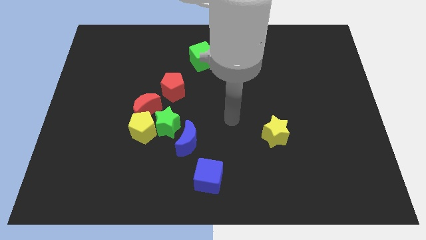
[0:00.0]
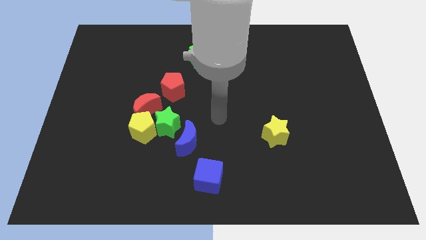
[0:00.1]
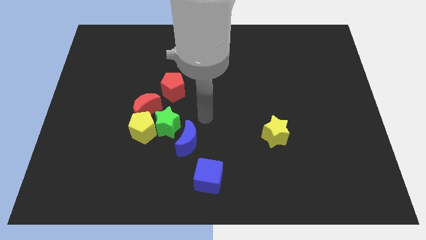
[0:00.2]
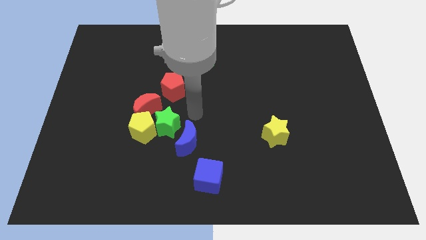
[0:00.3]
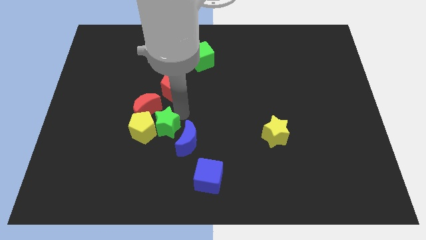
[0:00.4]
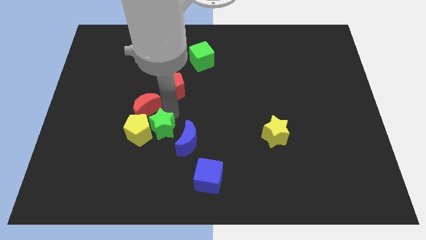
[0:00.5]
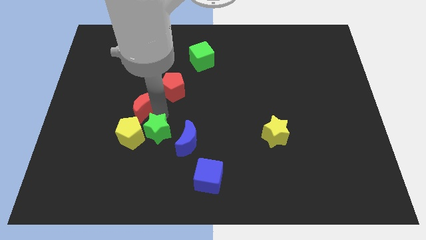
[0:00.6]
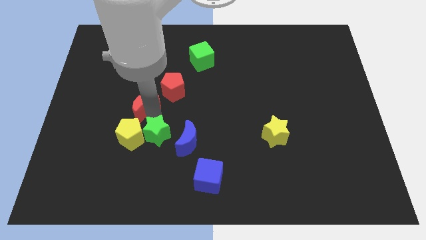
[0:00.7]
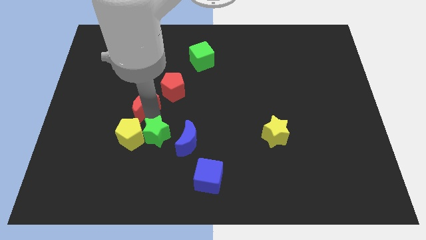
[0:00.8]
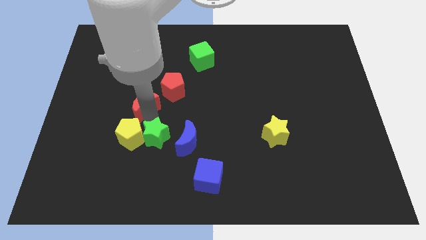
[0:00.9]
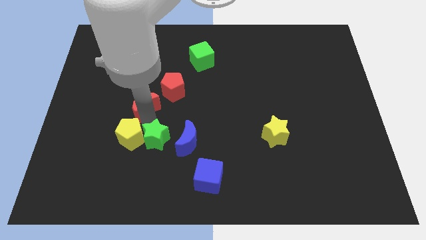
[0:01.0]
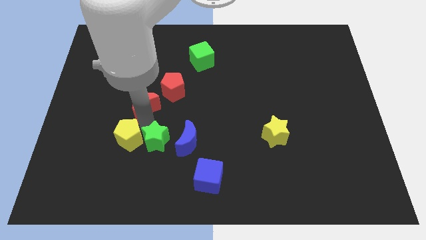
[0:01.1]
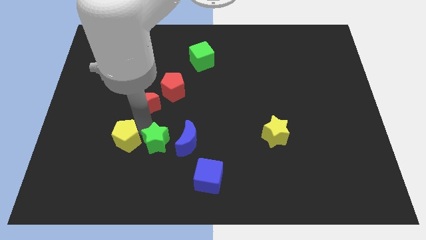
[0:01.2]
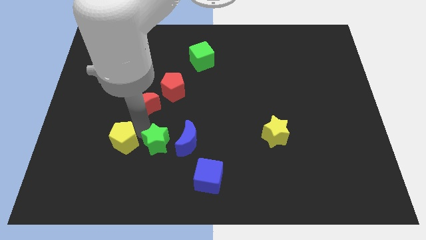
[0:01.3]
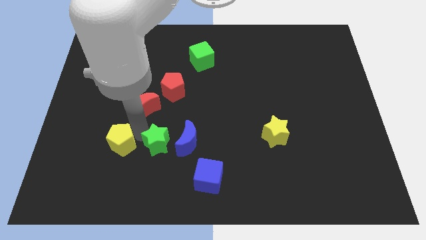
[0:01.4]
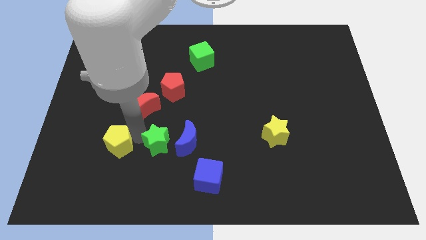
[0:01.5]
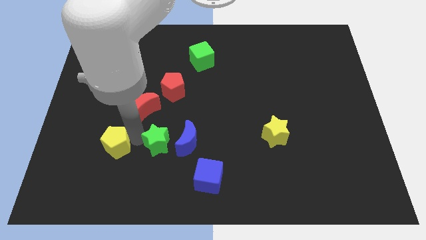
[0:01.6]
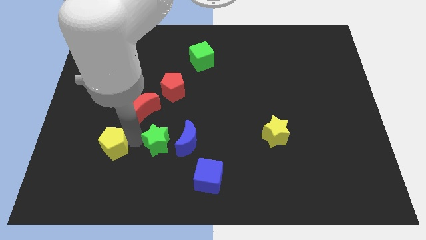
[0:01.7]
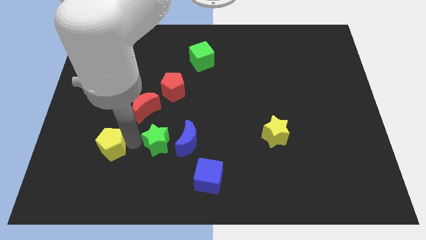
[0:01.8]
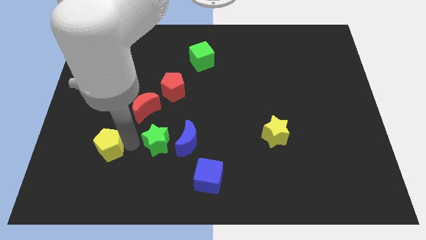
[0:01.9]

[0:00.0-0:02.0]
separate the yellow pentagon from the green star and red moon

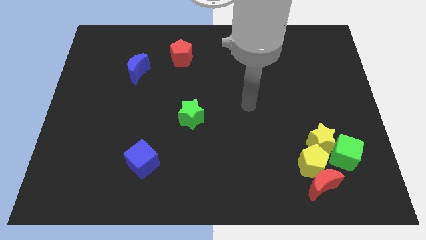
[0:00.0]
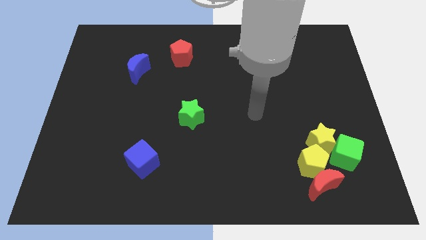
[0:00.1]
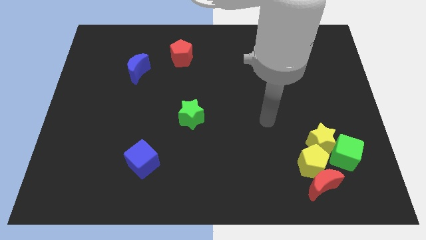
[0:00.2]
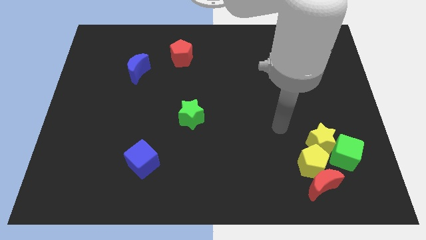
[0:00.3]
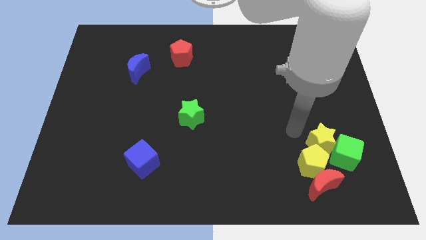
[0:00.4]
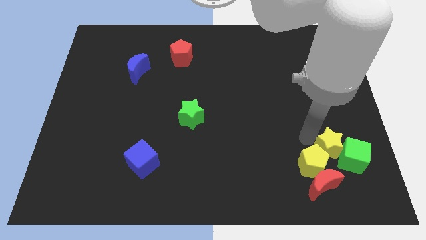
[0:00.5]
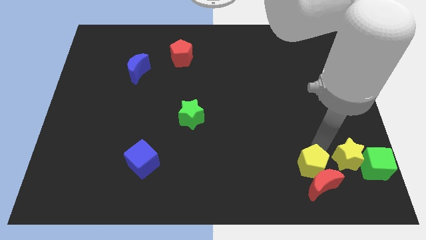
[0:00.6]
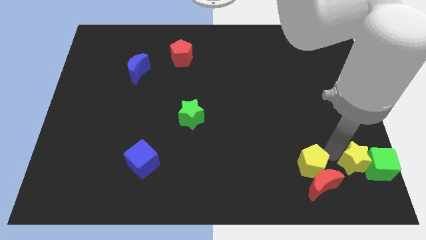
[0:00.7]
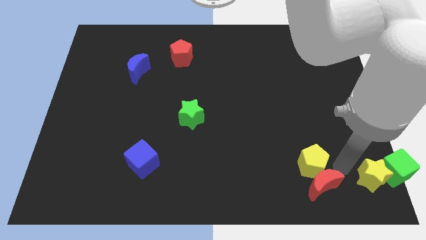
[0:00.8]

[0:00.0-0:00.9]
separate the yellow pentagon from the red moon, yellow star, and green cube

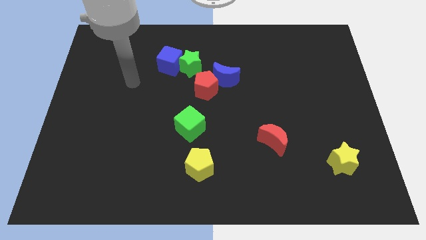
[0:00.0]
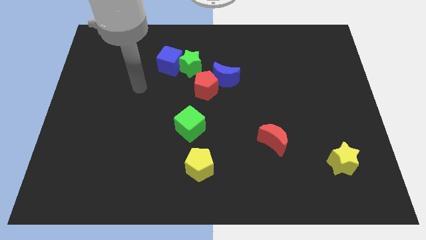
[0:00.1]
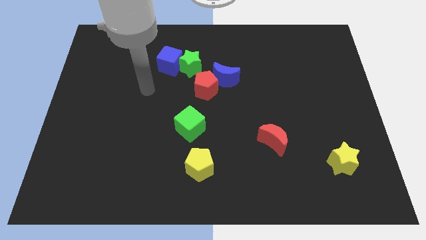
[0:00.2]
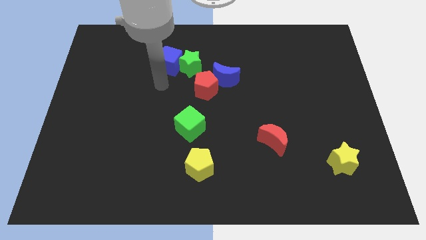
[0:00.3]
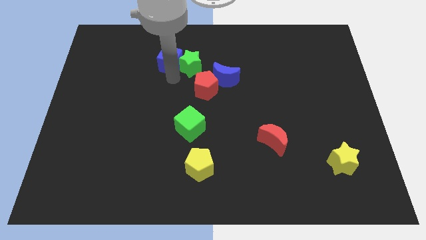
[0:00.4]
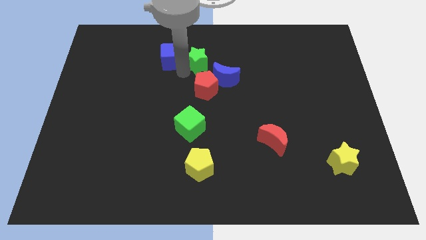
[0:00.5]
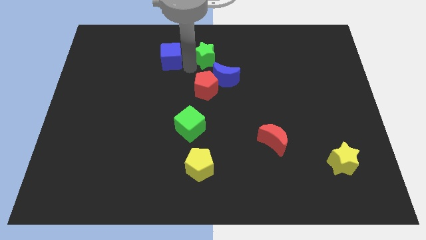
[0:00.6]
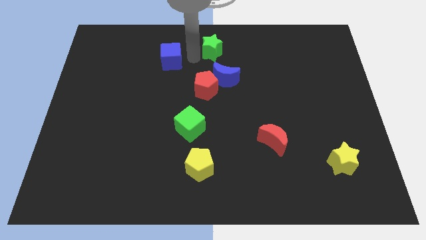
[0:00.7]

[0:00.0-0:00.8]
move the blue cube away from the green star

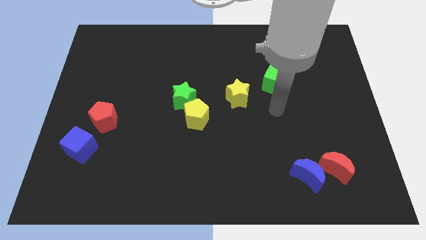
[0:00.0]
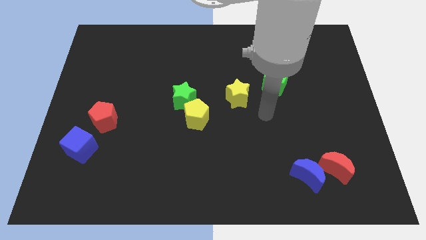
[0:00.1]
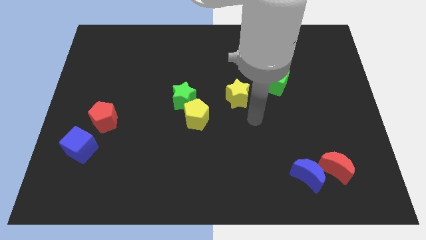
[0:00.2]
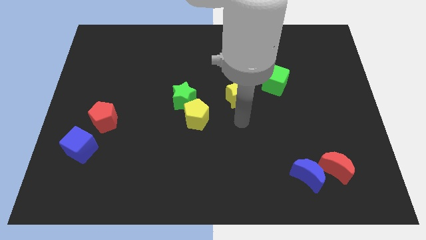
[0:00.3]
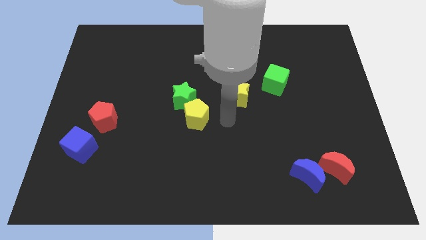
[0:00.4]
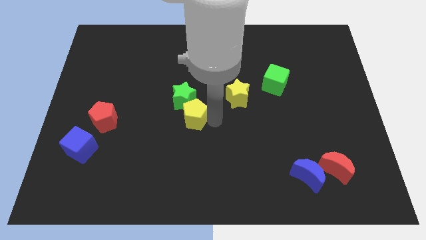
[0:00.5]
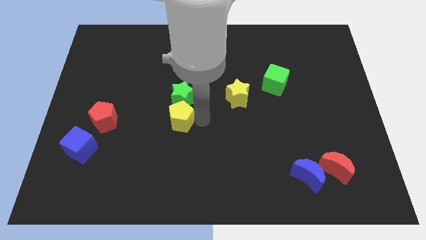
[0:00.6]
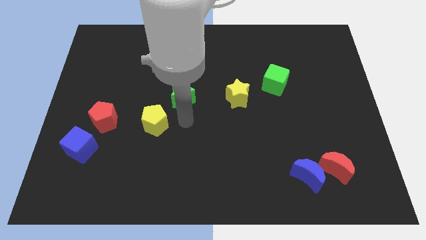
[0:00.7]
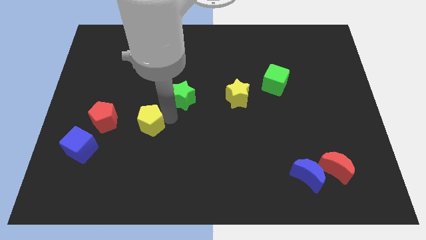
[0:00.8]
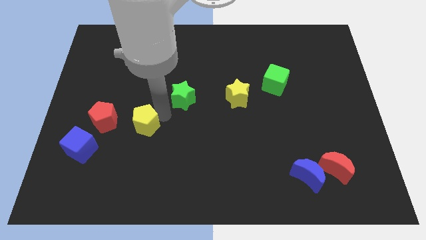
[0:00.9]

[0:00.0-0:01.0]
move the green star away from the yellow pentagon

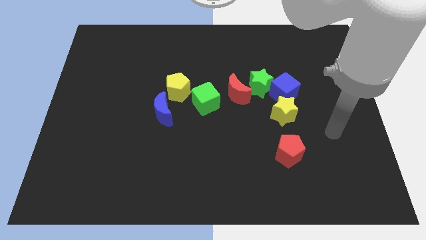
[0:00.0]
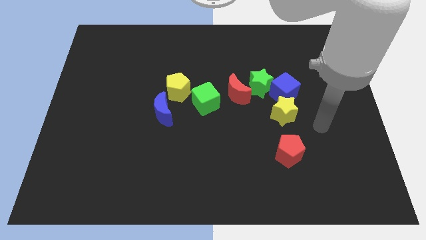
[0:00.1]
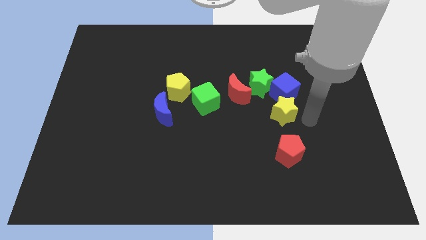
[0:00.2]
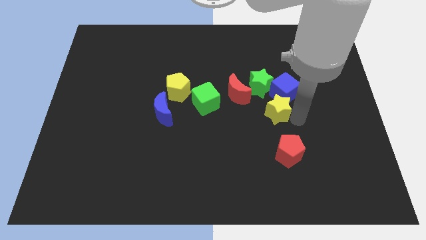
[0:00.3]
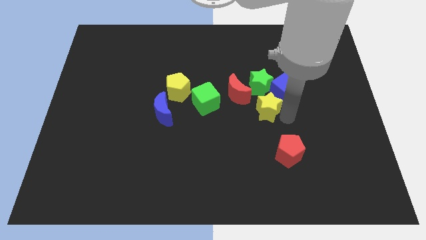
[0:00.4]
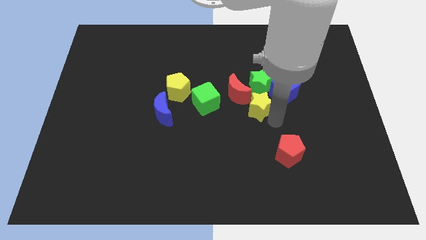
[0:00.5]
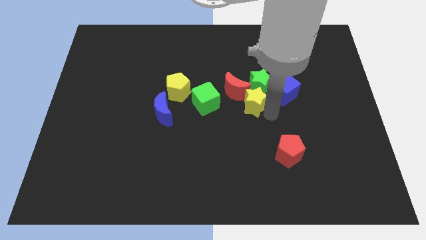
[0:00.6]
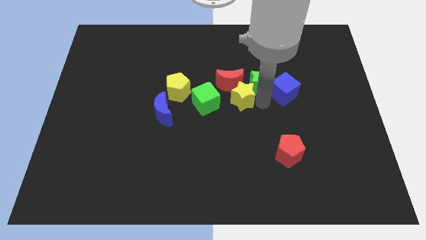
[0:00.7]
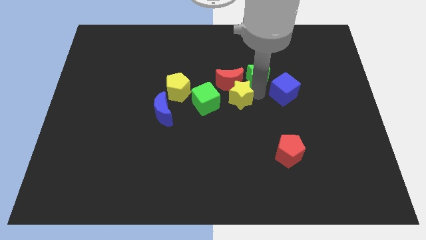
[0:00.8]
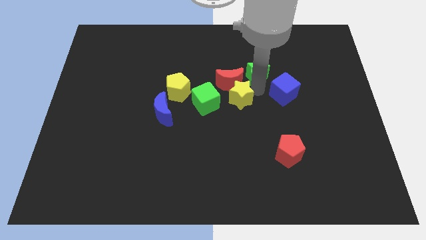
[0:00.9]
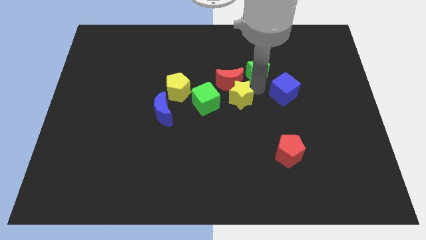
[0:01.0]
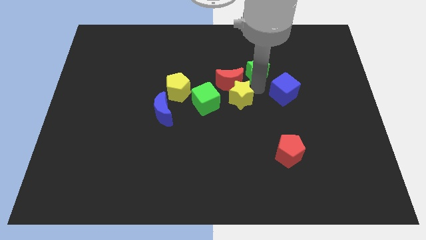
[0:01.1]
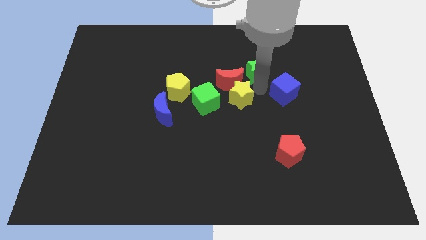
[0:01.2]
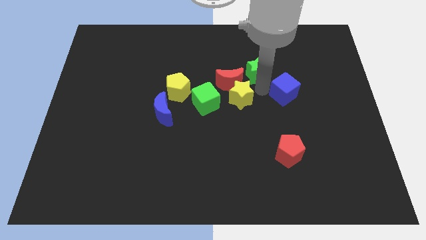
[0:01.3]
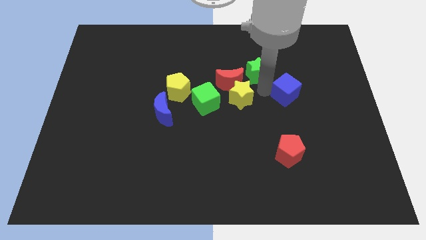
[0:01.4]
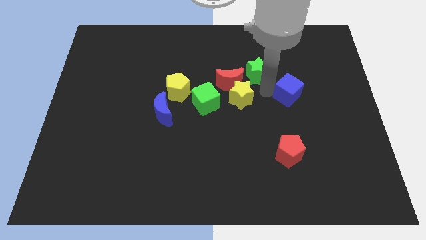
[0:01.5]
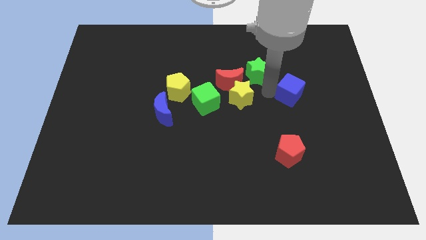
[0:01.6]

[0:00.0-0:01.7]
pull the blue cube apart from the green star and yellow star

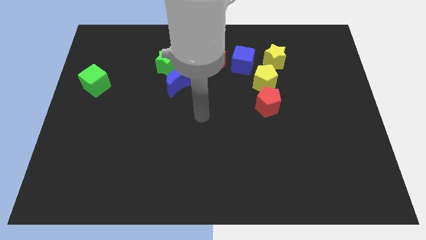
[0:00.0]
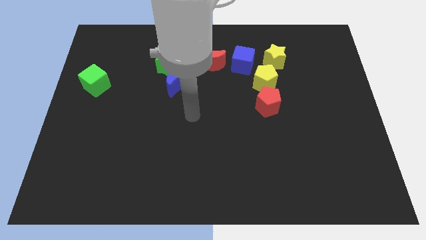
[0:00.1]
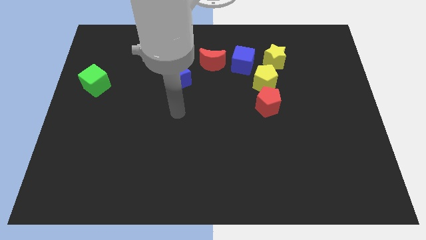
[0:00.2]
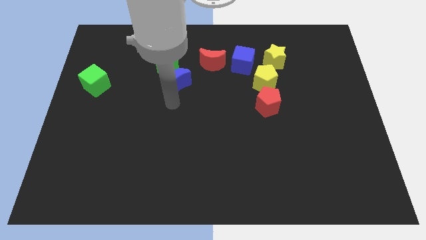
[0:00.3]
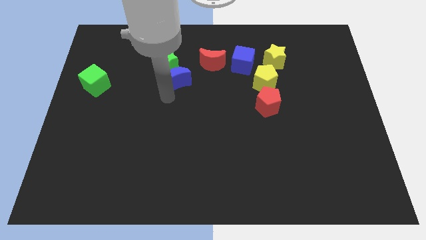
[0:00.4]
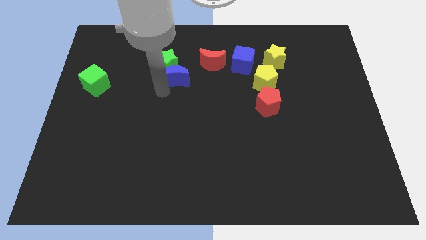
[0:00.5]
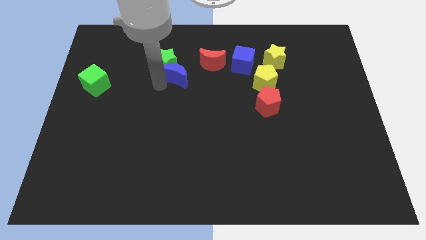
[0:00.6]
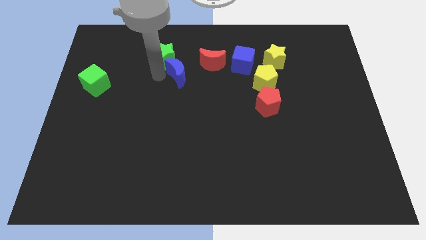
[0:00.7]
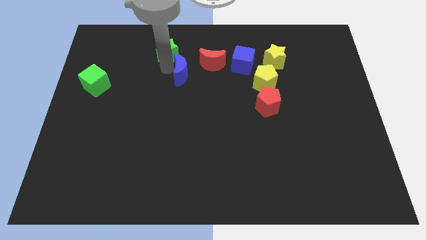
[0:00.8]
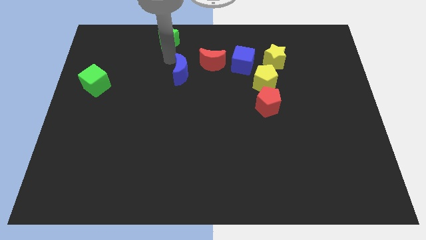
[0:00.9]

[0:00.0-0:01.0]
move the blue moon away from the green star

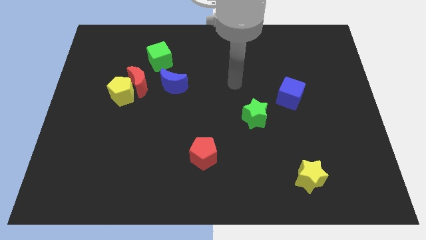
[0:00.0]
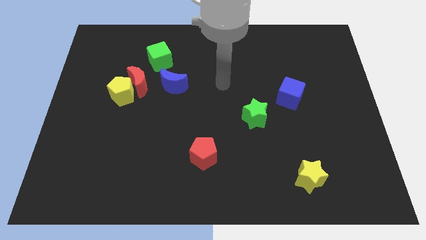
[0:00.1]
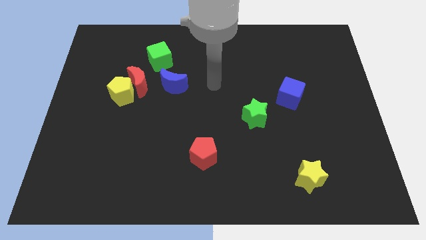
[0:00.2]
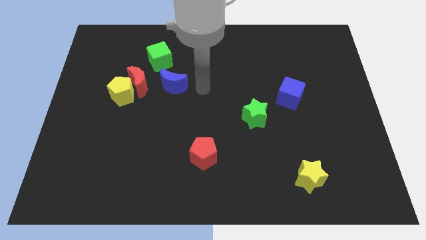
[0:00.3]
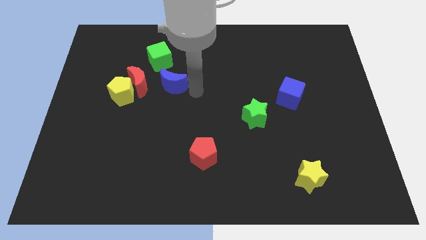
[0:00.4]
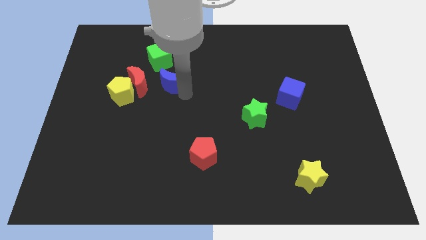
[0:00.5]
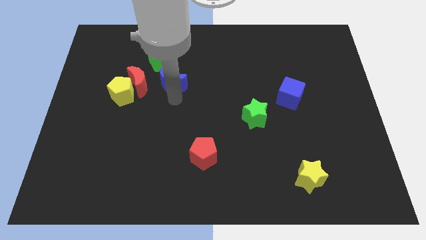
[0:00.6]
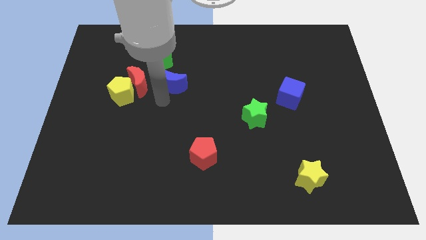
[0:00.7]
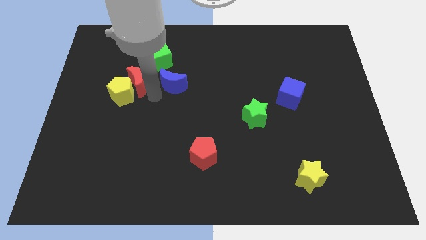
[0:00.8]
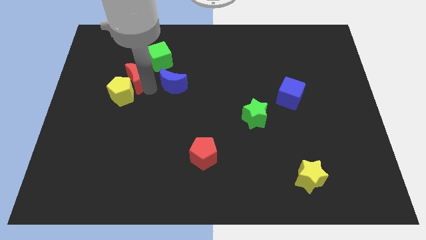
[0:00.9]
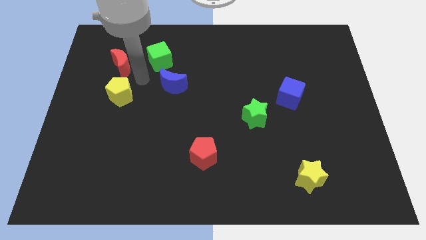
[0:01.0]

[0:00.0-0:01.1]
separate the yellow pentagon from the red moon

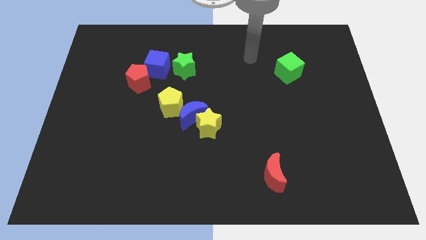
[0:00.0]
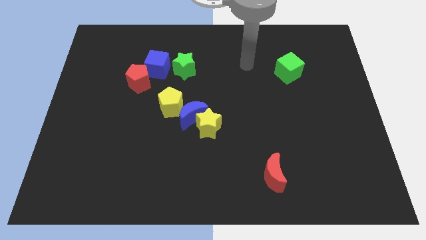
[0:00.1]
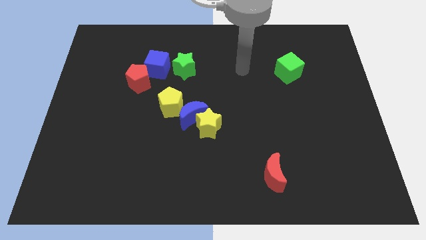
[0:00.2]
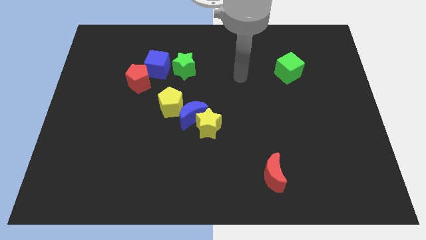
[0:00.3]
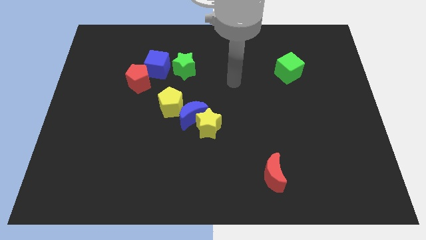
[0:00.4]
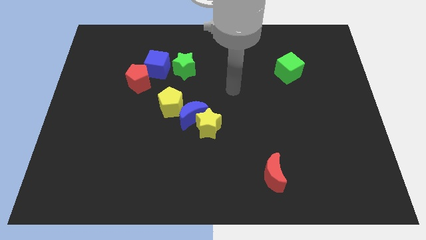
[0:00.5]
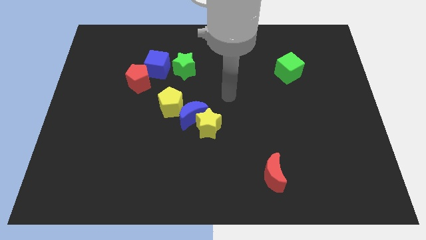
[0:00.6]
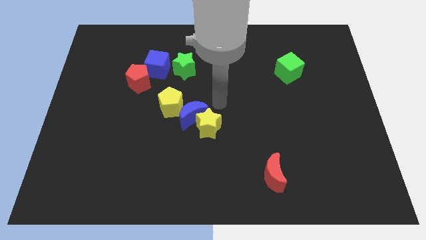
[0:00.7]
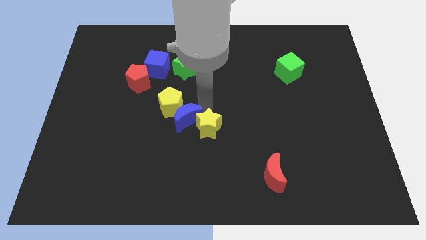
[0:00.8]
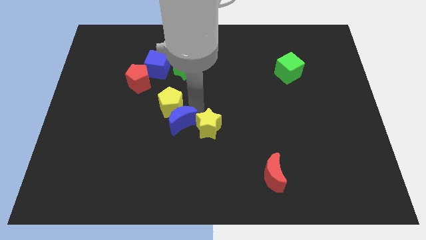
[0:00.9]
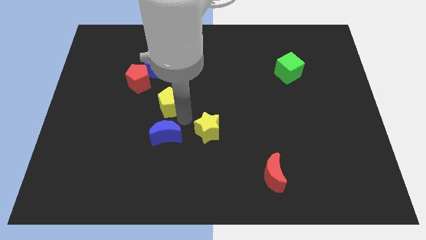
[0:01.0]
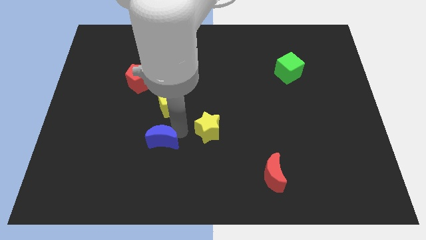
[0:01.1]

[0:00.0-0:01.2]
pull the yellow star apart from the blue moon
